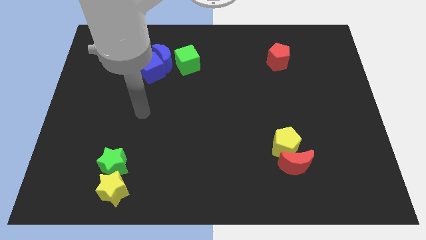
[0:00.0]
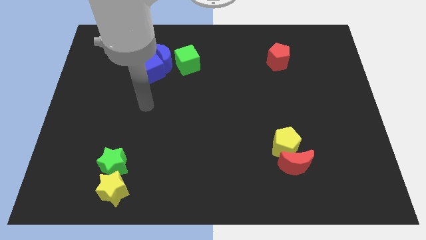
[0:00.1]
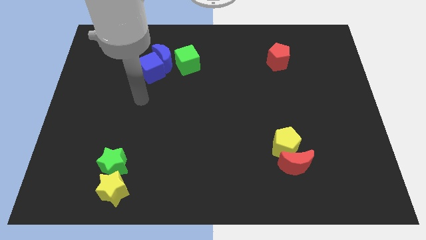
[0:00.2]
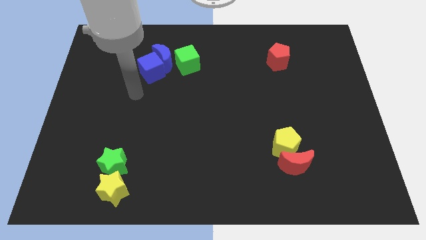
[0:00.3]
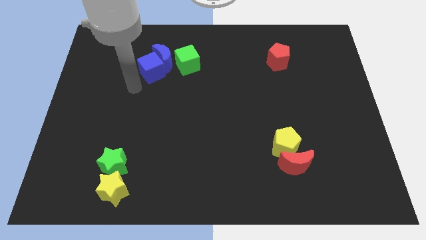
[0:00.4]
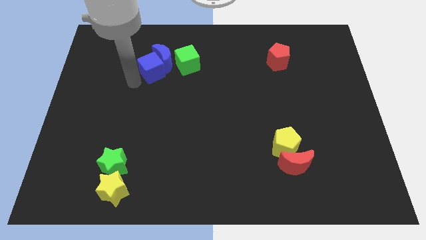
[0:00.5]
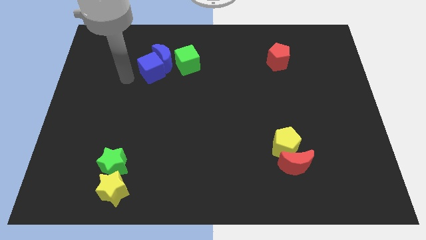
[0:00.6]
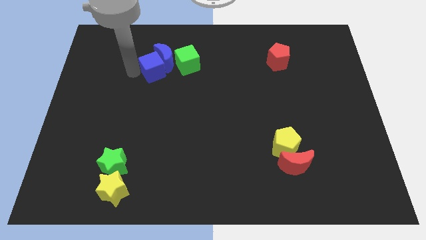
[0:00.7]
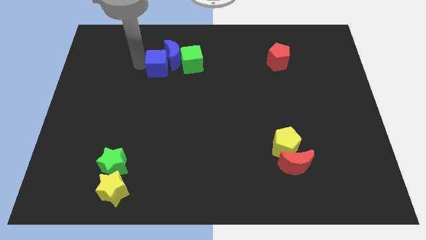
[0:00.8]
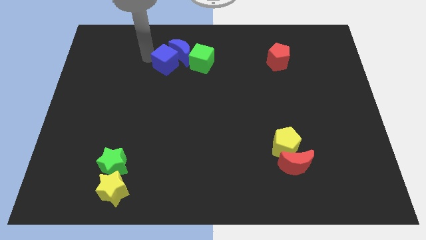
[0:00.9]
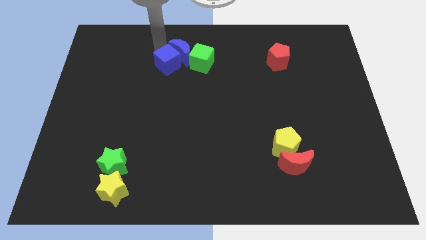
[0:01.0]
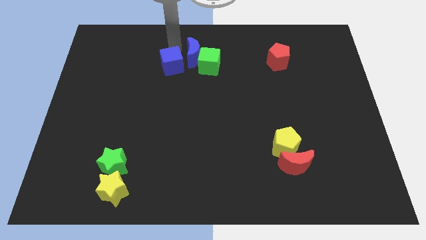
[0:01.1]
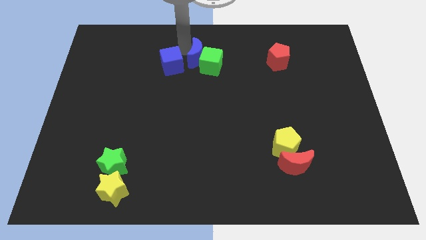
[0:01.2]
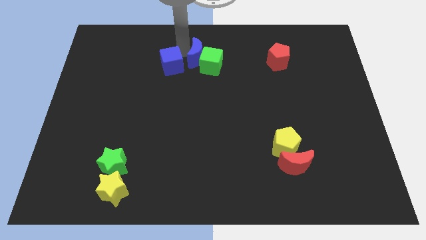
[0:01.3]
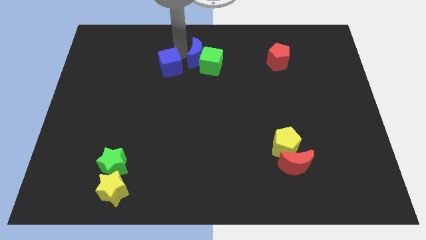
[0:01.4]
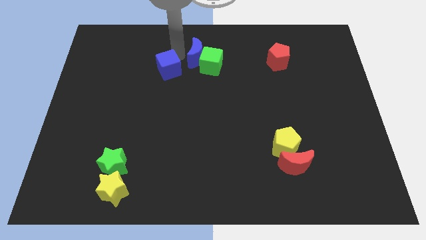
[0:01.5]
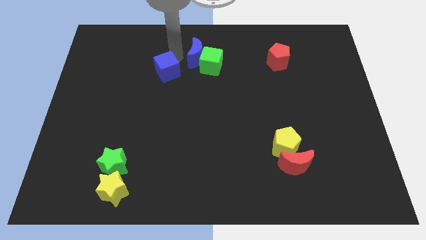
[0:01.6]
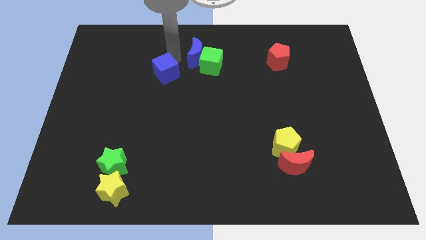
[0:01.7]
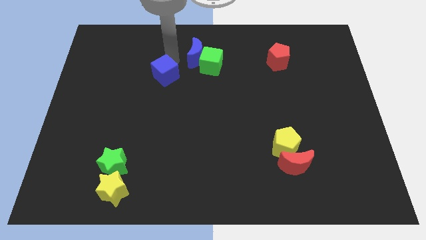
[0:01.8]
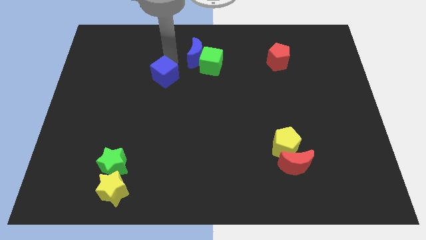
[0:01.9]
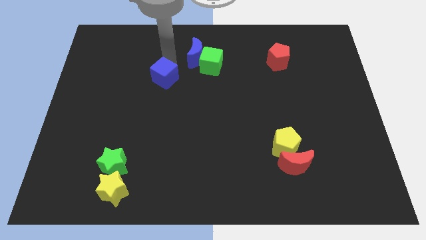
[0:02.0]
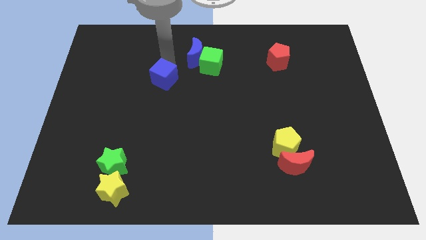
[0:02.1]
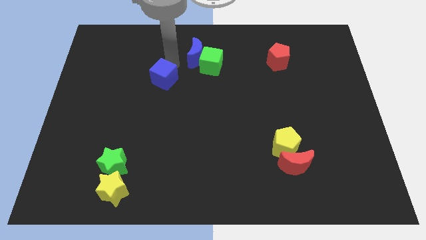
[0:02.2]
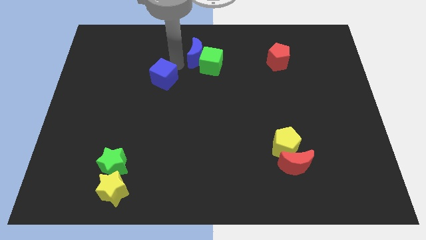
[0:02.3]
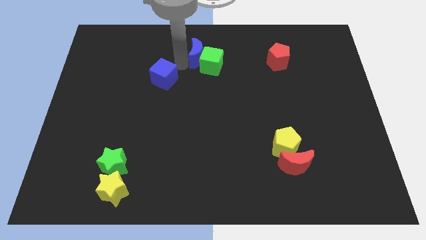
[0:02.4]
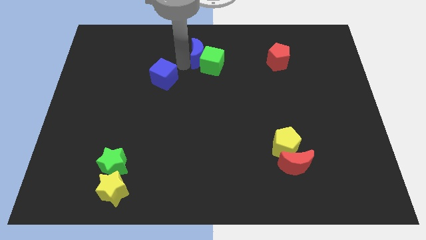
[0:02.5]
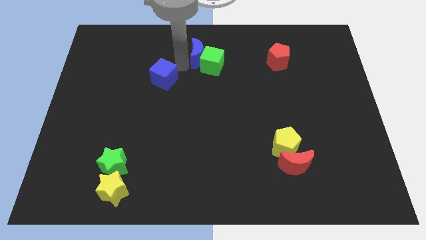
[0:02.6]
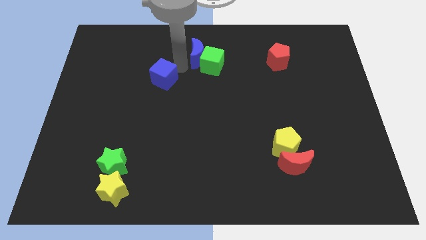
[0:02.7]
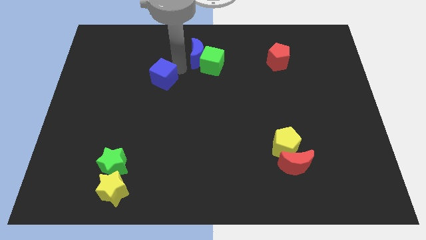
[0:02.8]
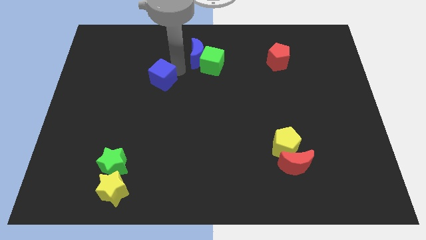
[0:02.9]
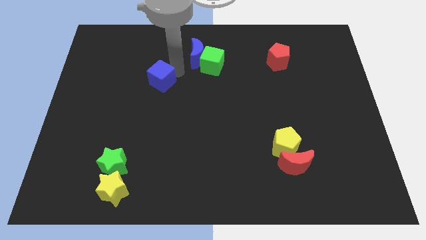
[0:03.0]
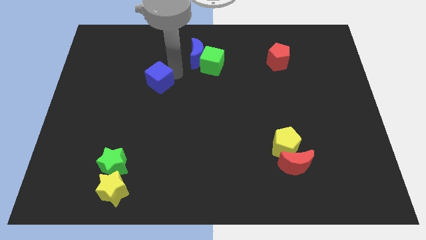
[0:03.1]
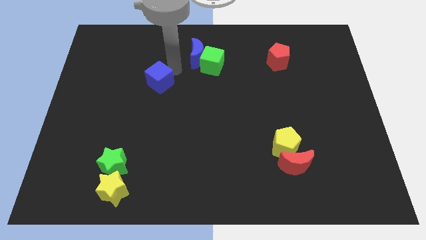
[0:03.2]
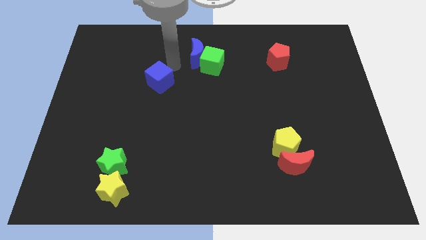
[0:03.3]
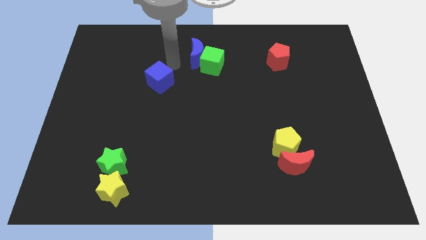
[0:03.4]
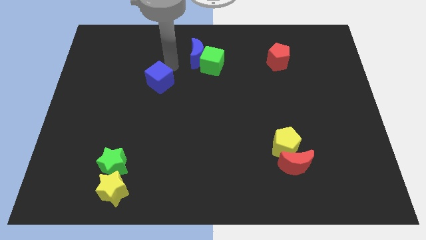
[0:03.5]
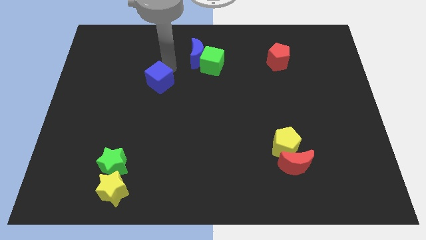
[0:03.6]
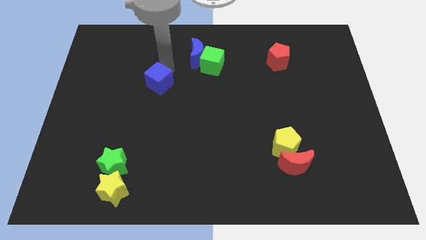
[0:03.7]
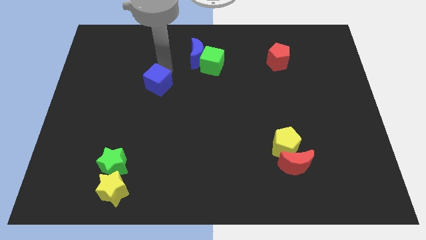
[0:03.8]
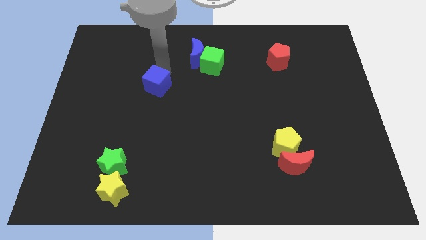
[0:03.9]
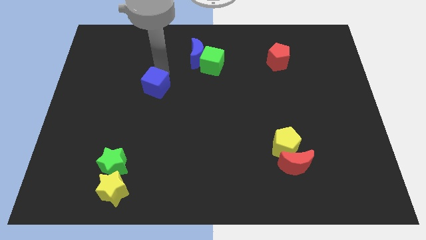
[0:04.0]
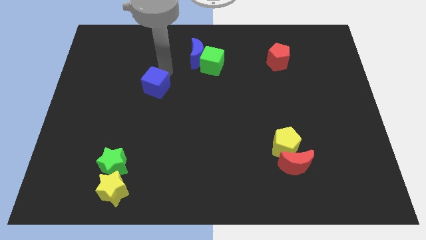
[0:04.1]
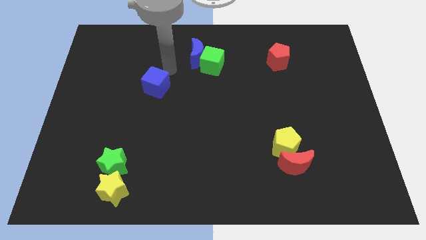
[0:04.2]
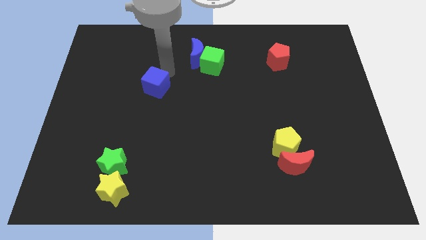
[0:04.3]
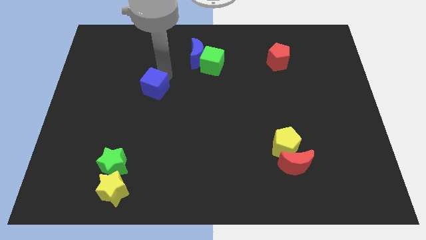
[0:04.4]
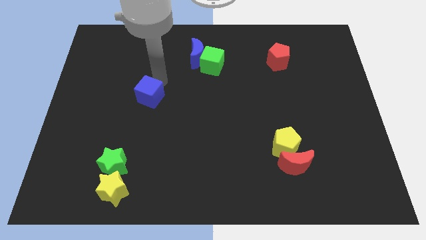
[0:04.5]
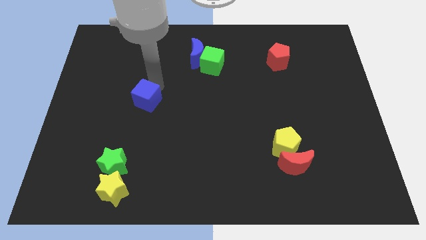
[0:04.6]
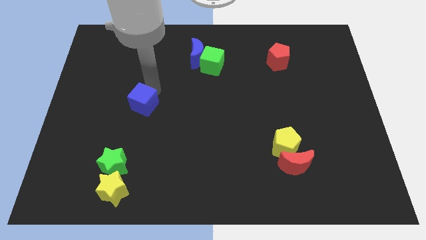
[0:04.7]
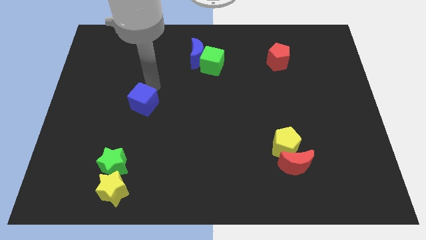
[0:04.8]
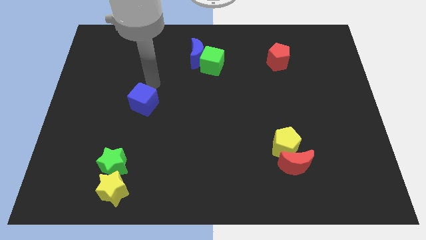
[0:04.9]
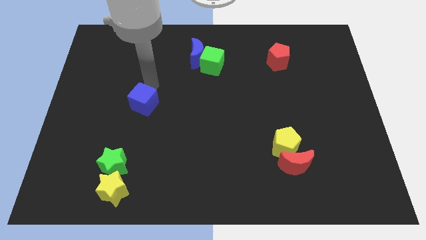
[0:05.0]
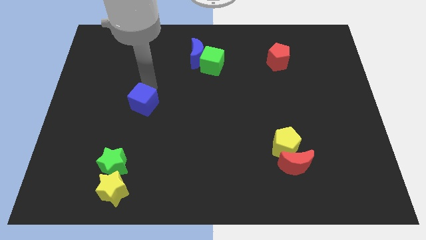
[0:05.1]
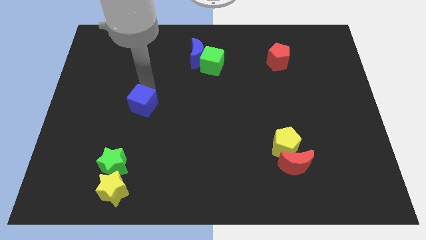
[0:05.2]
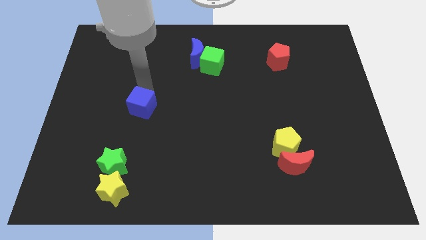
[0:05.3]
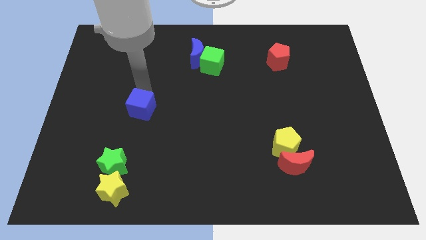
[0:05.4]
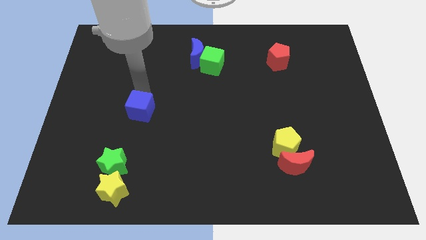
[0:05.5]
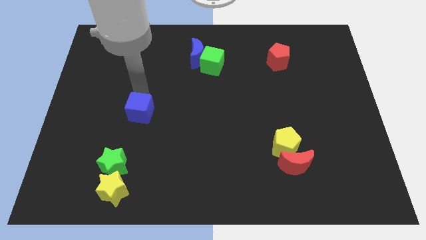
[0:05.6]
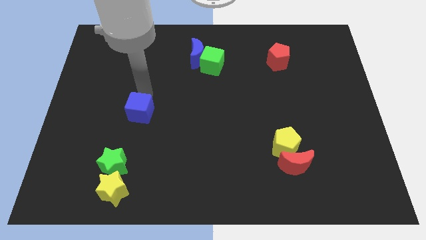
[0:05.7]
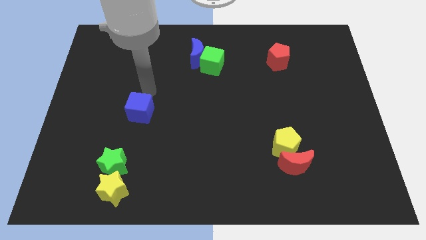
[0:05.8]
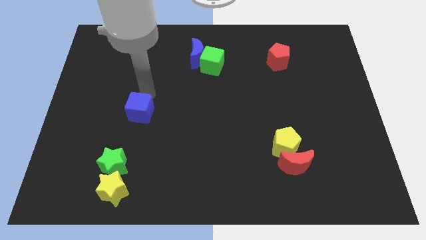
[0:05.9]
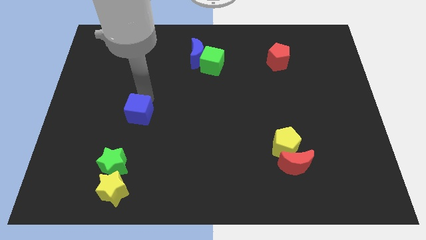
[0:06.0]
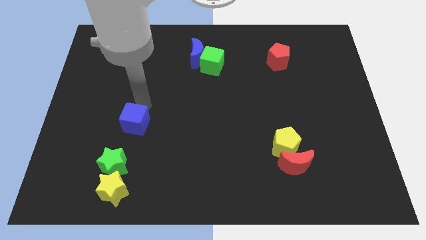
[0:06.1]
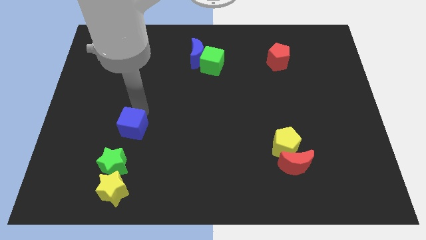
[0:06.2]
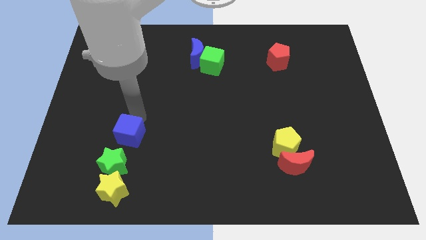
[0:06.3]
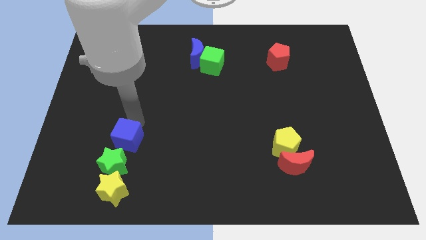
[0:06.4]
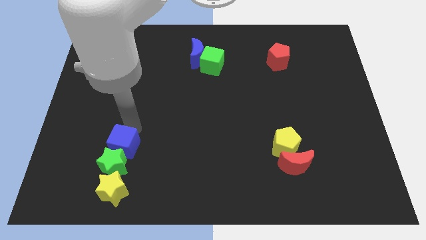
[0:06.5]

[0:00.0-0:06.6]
put the blue cube to the green star

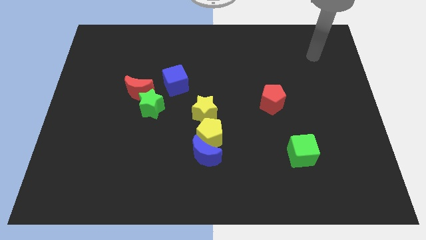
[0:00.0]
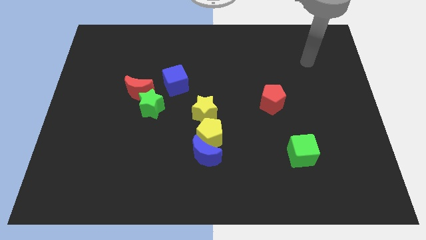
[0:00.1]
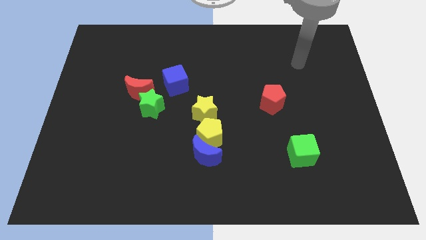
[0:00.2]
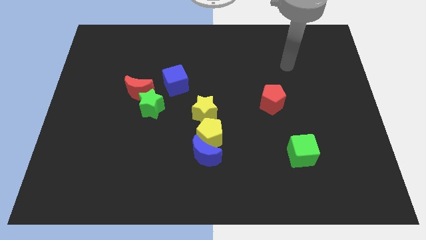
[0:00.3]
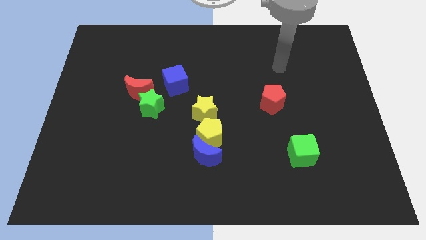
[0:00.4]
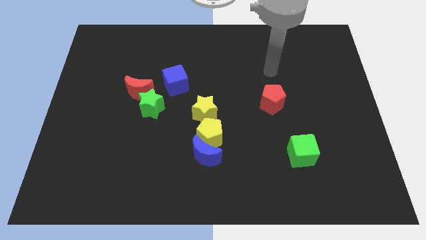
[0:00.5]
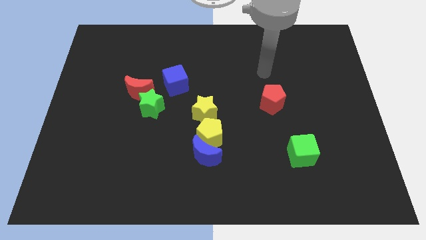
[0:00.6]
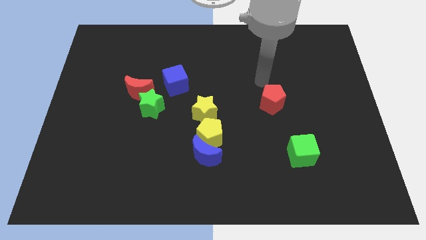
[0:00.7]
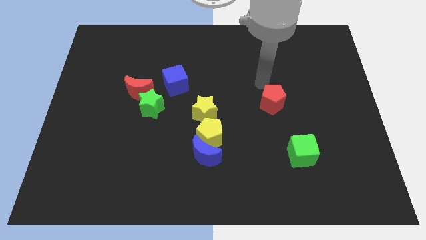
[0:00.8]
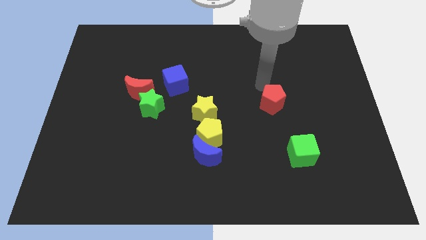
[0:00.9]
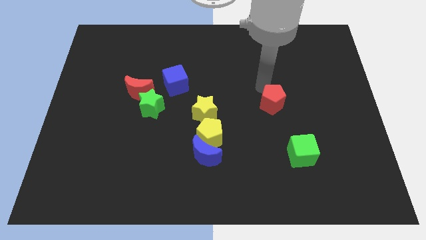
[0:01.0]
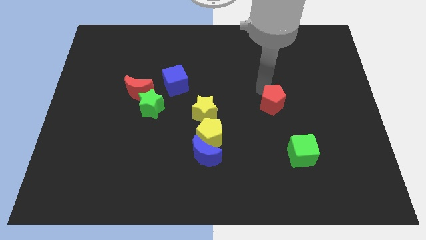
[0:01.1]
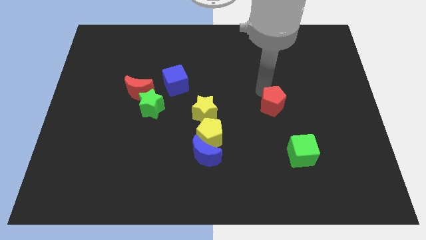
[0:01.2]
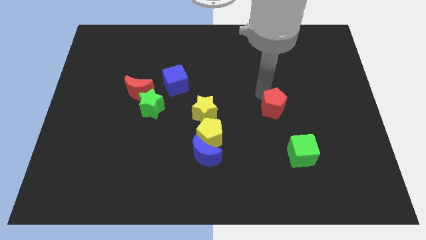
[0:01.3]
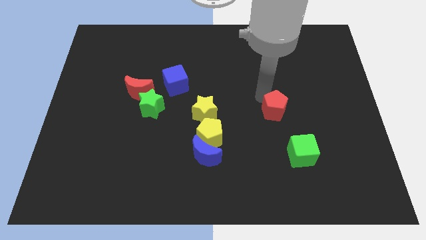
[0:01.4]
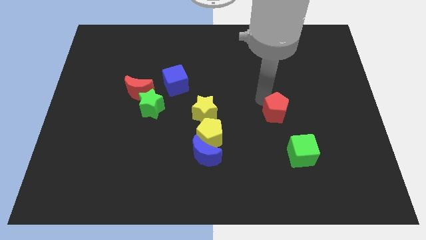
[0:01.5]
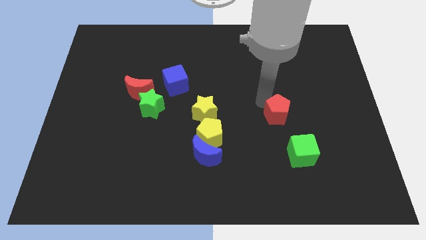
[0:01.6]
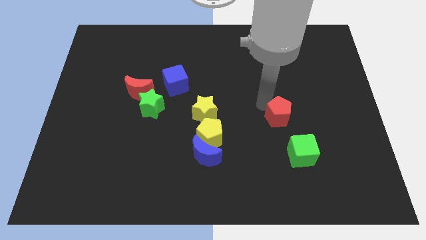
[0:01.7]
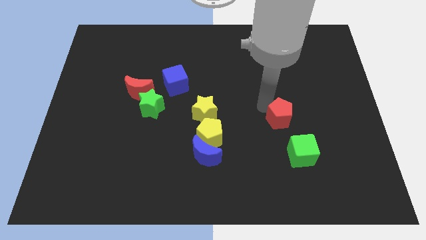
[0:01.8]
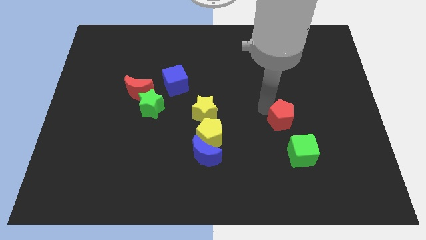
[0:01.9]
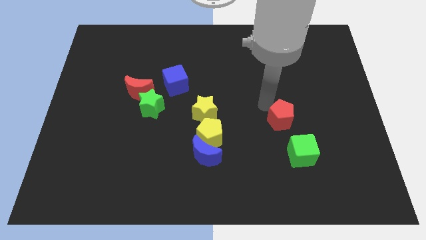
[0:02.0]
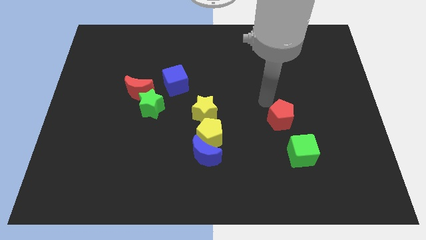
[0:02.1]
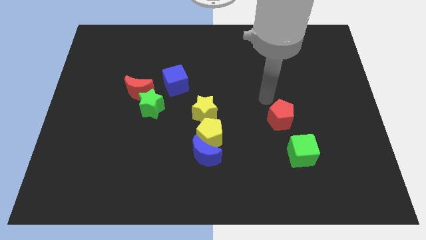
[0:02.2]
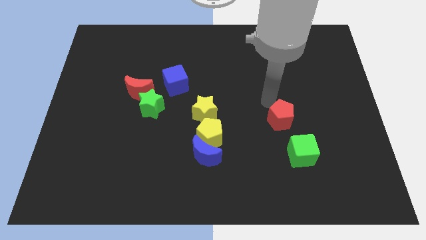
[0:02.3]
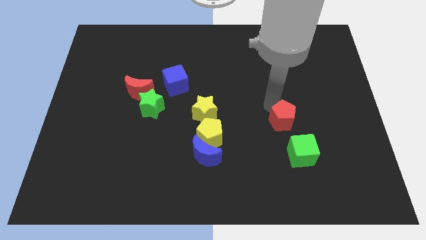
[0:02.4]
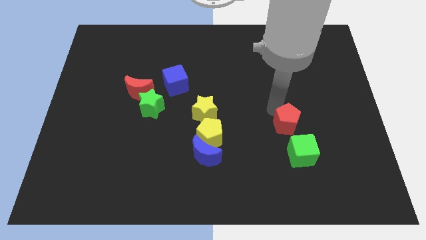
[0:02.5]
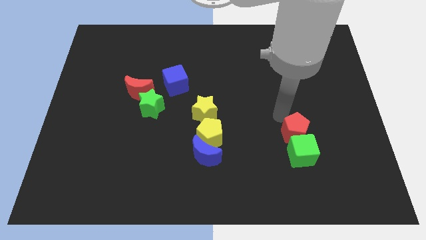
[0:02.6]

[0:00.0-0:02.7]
push the red pentagon towards the green cube
